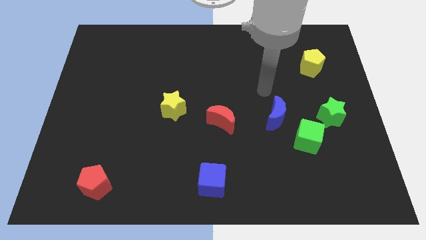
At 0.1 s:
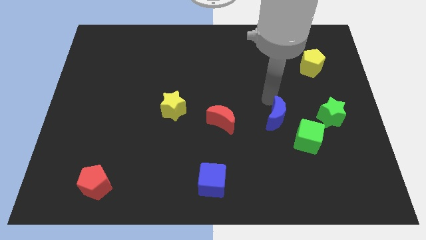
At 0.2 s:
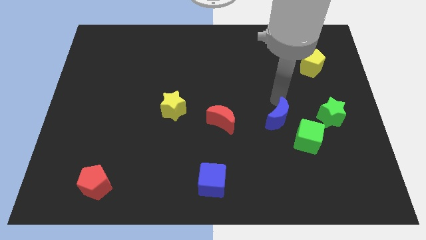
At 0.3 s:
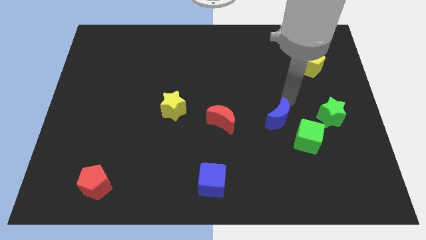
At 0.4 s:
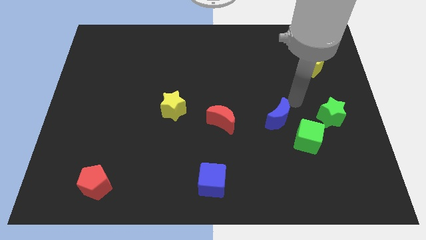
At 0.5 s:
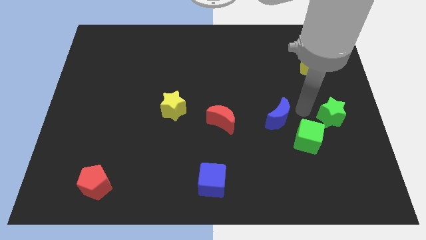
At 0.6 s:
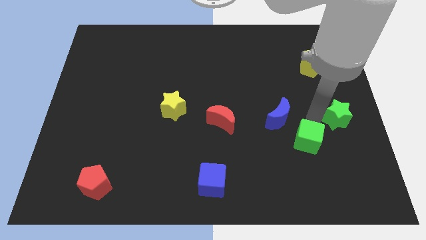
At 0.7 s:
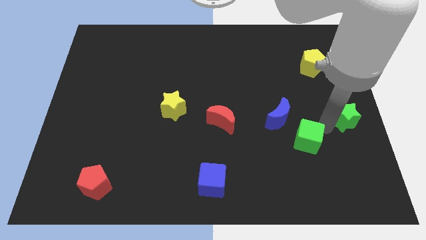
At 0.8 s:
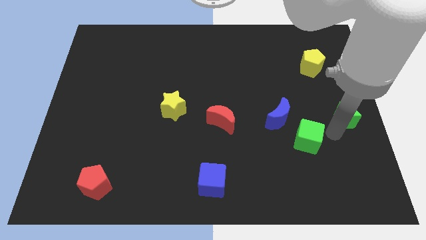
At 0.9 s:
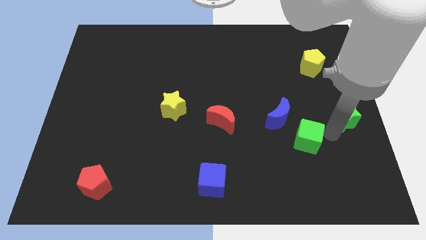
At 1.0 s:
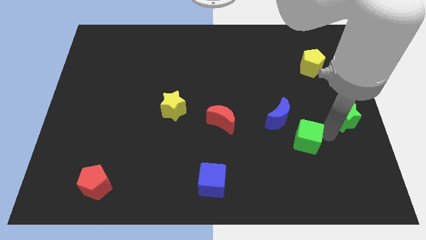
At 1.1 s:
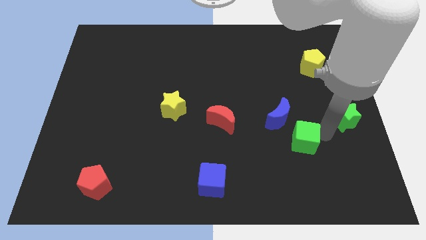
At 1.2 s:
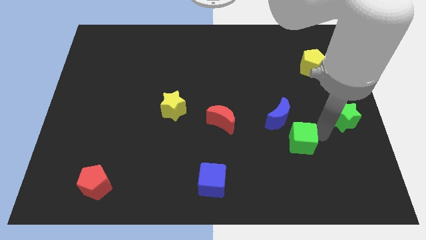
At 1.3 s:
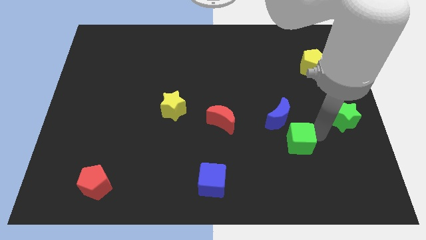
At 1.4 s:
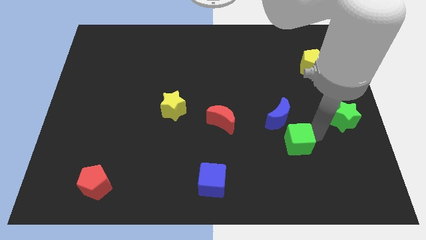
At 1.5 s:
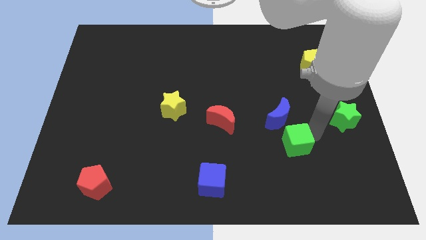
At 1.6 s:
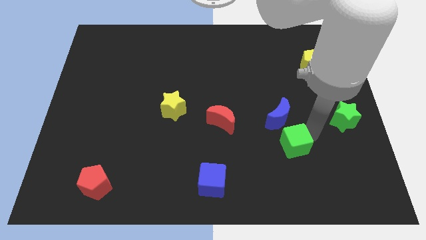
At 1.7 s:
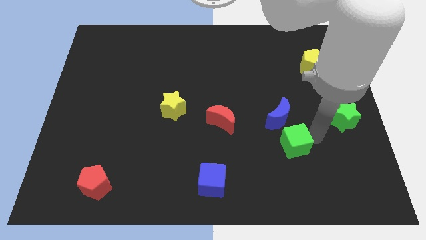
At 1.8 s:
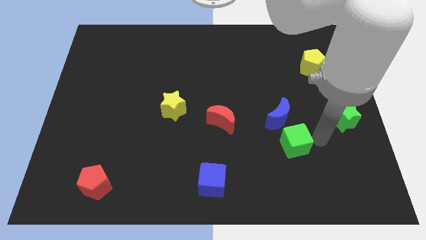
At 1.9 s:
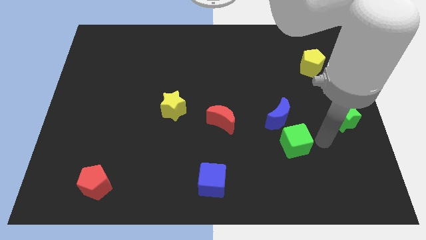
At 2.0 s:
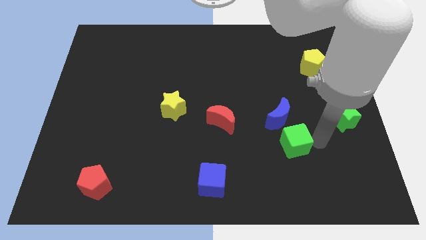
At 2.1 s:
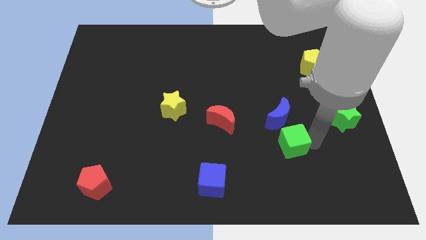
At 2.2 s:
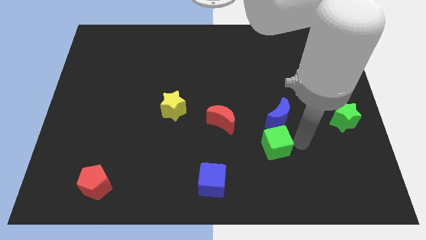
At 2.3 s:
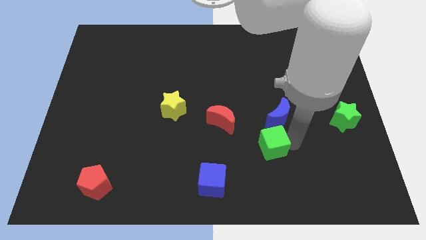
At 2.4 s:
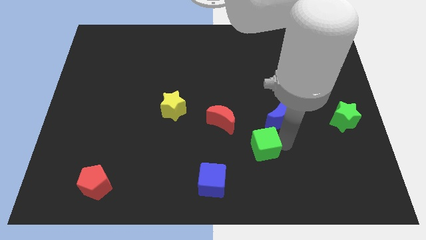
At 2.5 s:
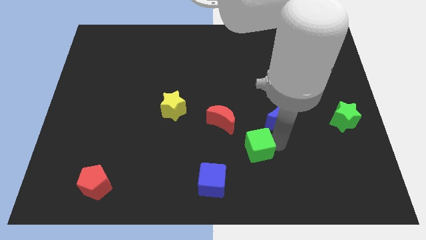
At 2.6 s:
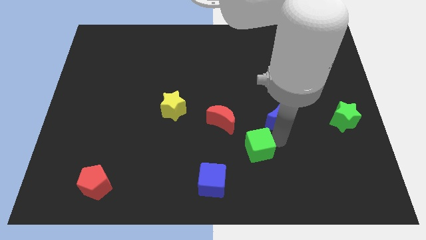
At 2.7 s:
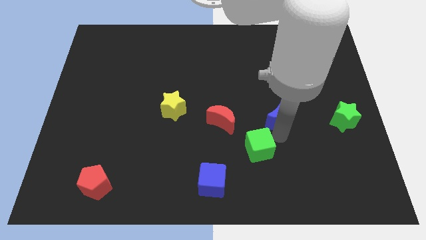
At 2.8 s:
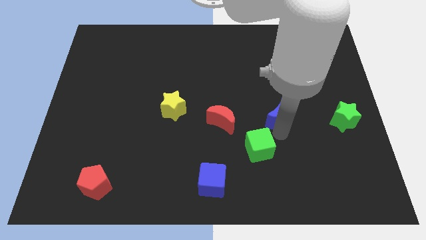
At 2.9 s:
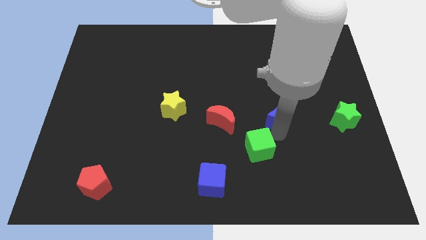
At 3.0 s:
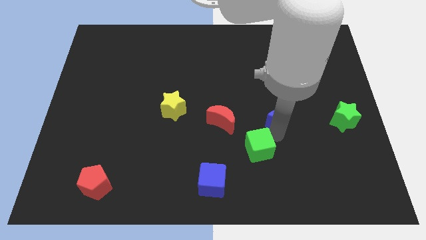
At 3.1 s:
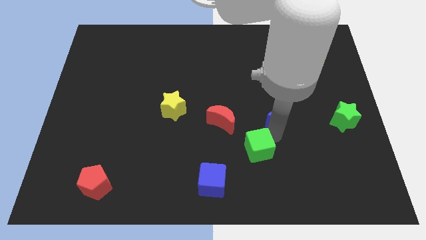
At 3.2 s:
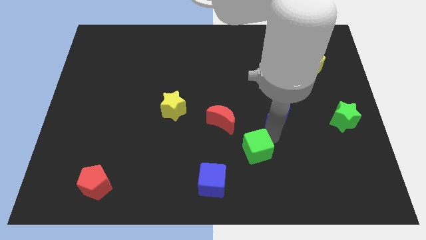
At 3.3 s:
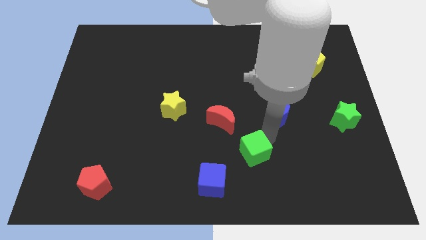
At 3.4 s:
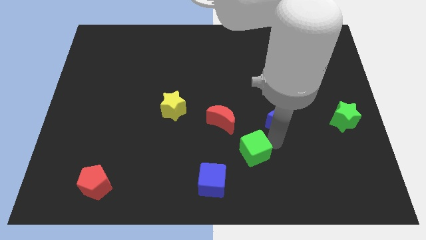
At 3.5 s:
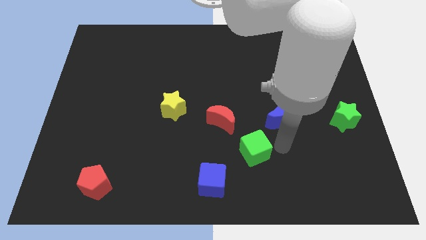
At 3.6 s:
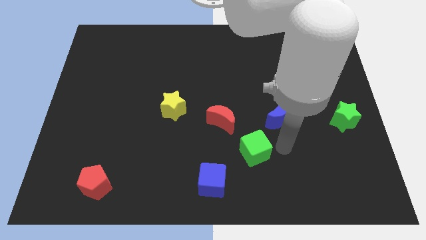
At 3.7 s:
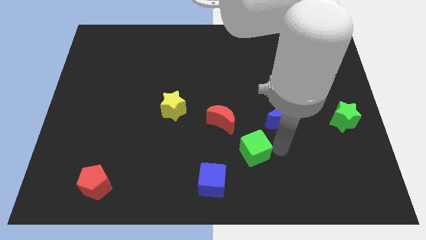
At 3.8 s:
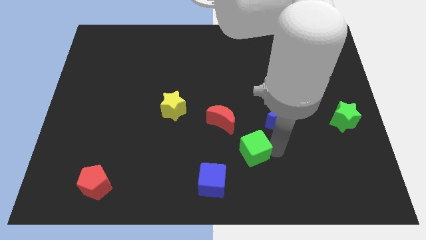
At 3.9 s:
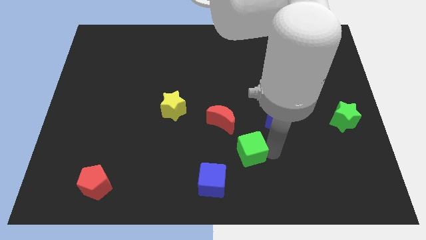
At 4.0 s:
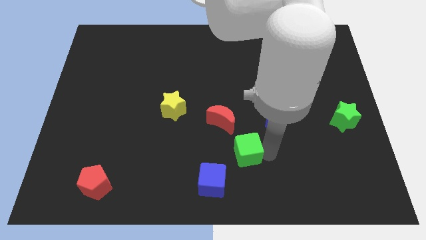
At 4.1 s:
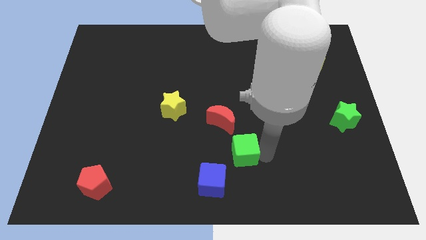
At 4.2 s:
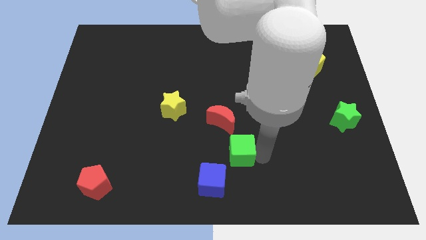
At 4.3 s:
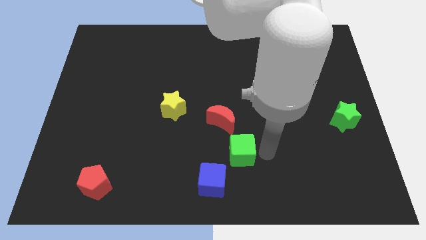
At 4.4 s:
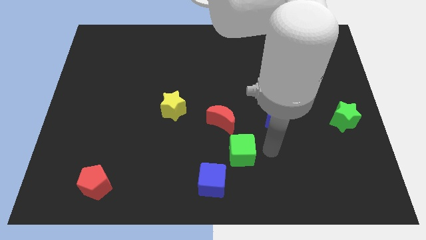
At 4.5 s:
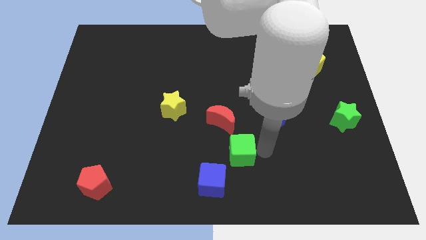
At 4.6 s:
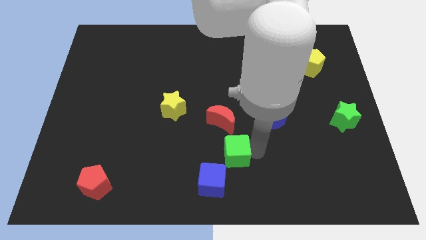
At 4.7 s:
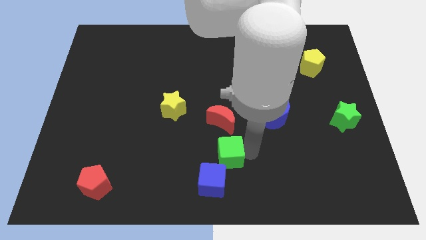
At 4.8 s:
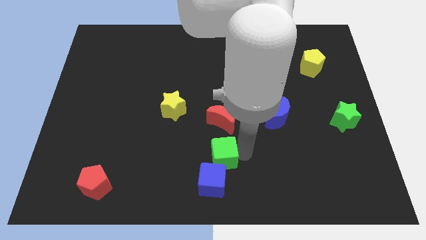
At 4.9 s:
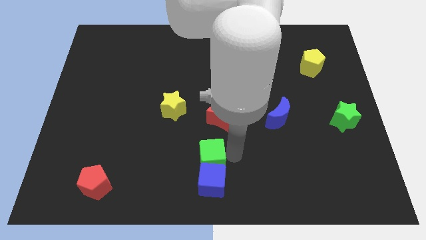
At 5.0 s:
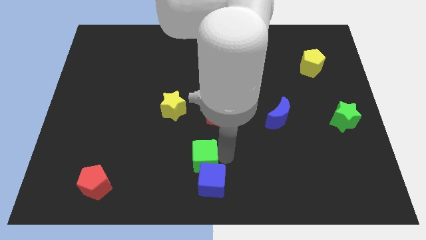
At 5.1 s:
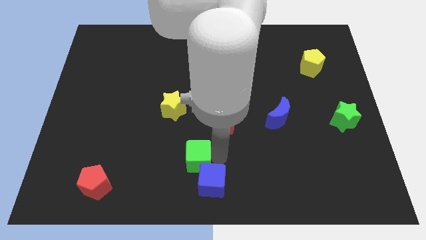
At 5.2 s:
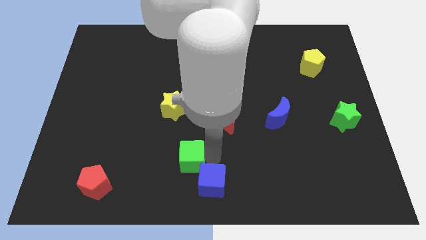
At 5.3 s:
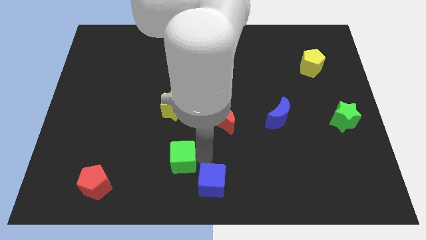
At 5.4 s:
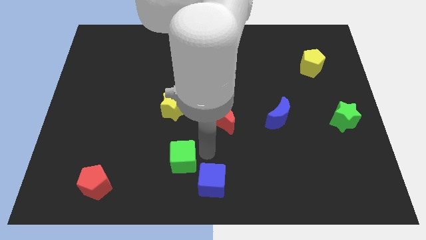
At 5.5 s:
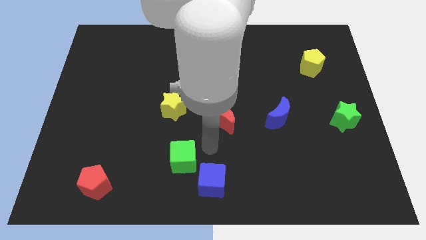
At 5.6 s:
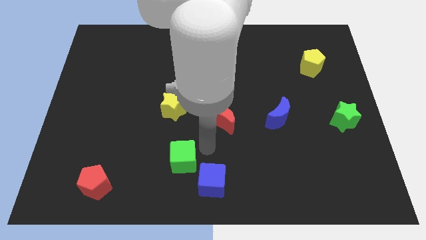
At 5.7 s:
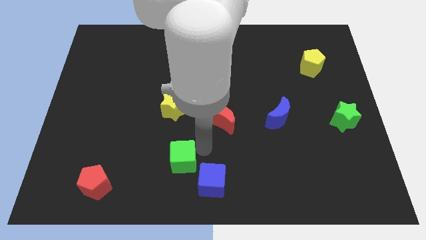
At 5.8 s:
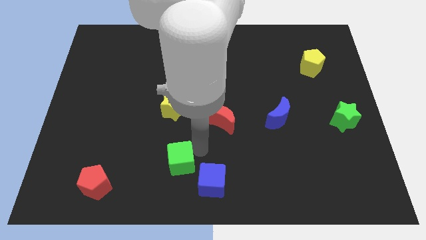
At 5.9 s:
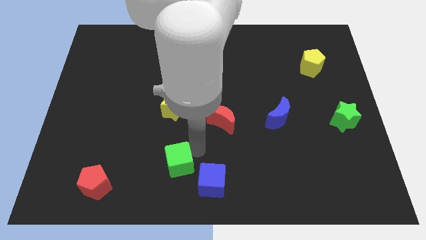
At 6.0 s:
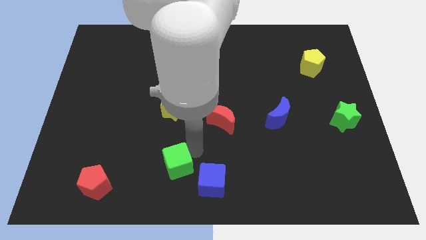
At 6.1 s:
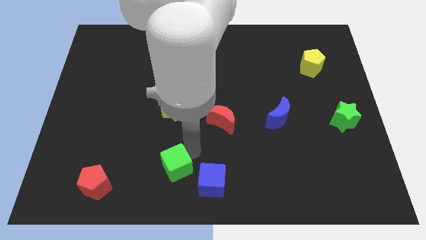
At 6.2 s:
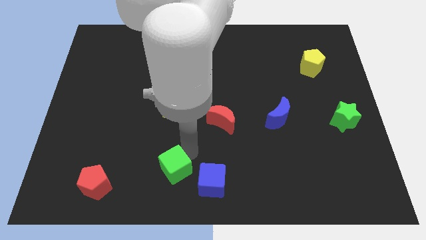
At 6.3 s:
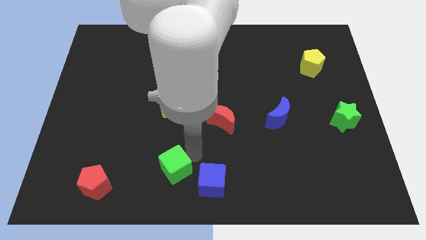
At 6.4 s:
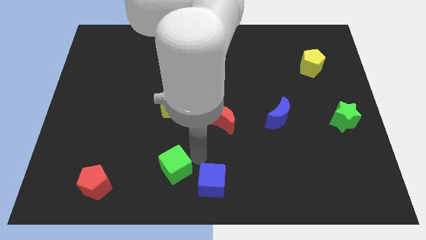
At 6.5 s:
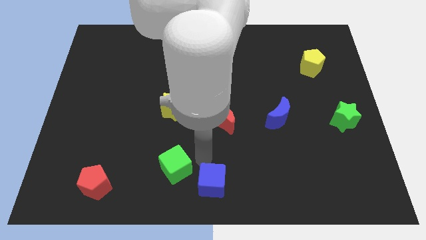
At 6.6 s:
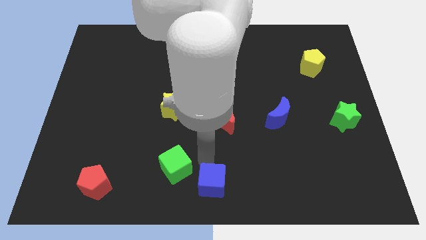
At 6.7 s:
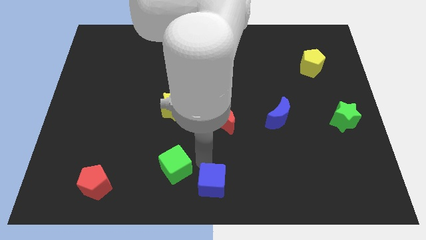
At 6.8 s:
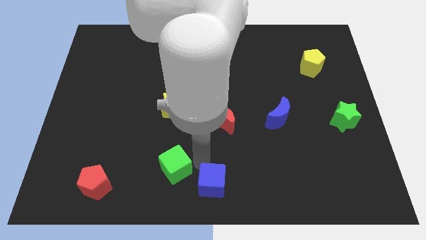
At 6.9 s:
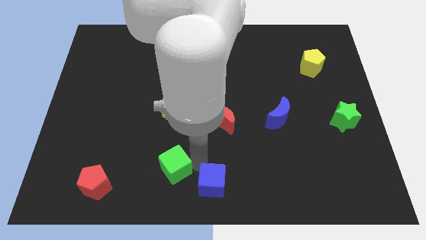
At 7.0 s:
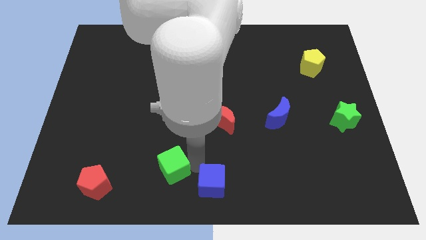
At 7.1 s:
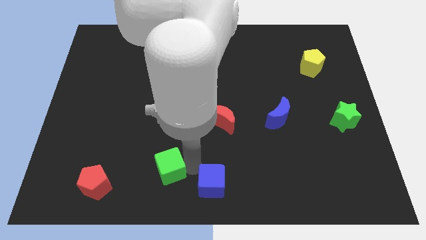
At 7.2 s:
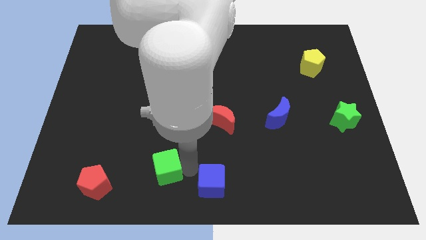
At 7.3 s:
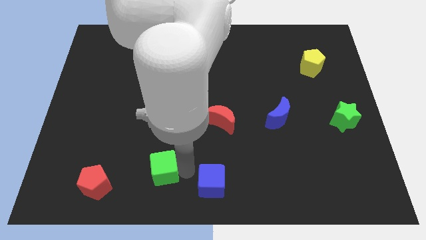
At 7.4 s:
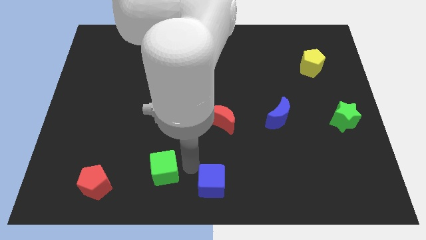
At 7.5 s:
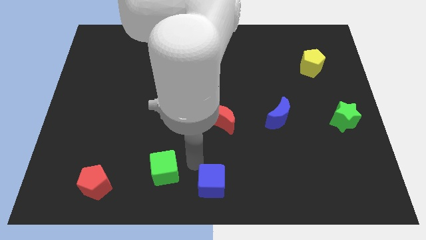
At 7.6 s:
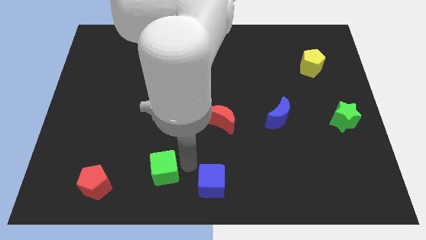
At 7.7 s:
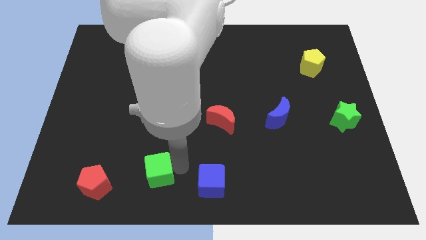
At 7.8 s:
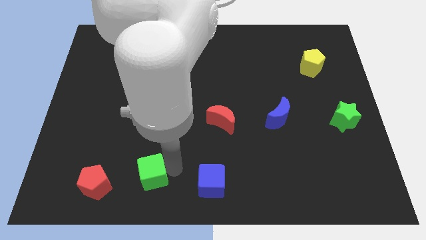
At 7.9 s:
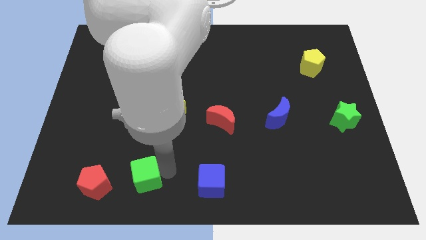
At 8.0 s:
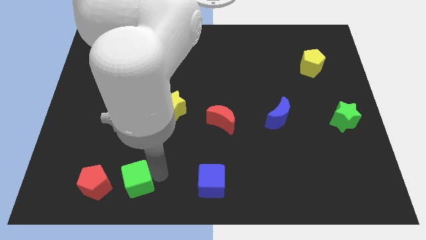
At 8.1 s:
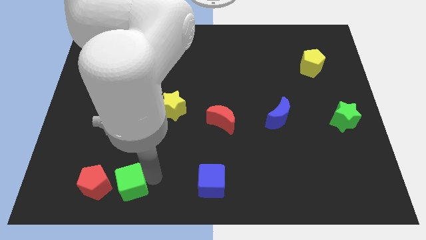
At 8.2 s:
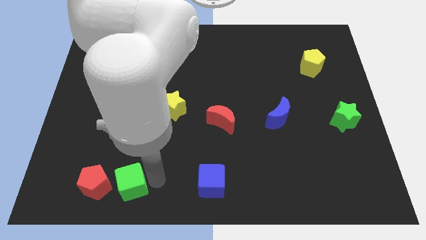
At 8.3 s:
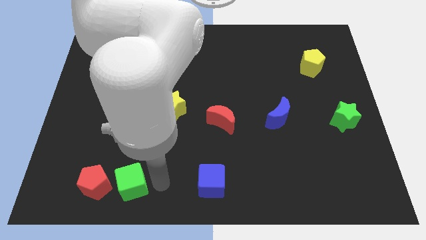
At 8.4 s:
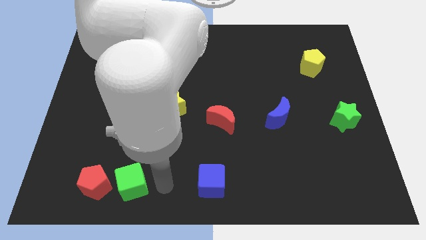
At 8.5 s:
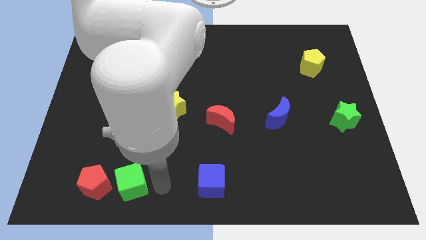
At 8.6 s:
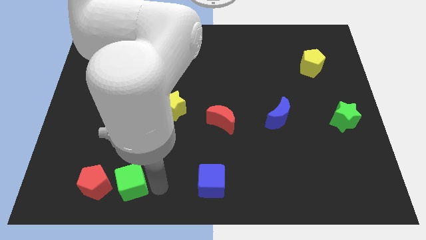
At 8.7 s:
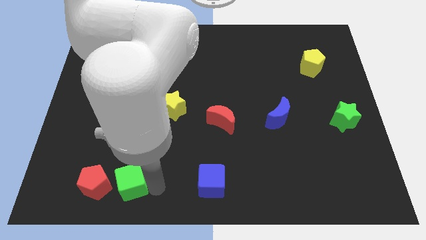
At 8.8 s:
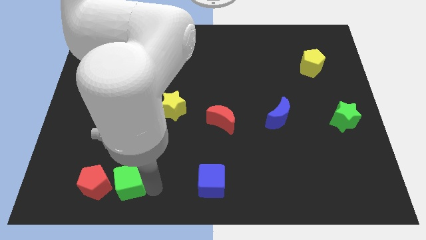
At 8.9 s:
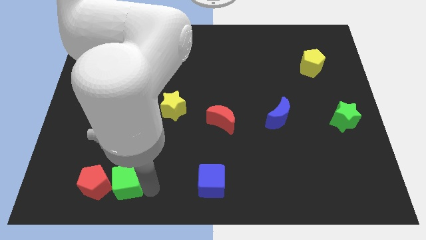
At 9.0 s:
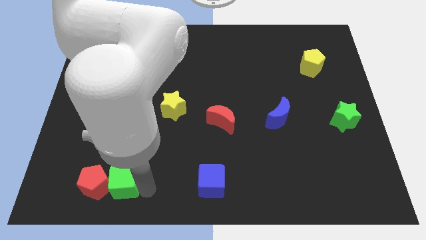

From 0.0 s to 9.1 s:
put the green cube to the red pentagon
